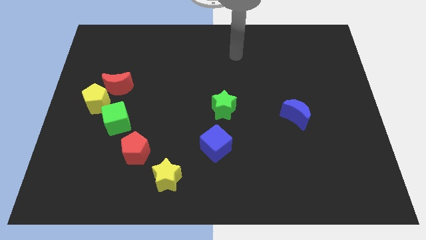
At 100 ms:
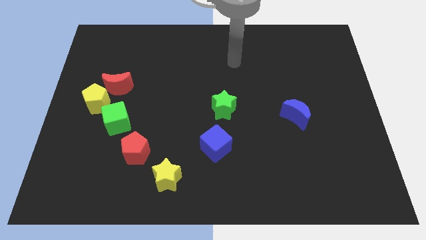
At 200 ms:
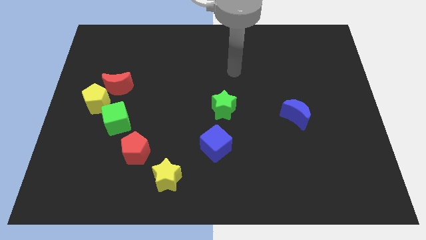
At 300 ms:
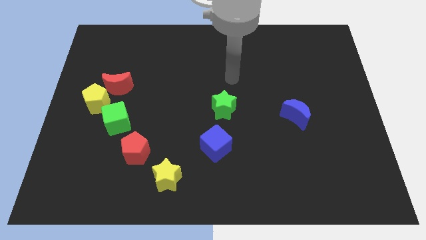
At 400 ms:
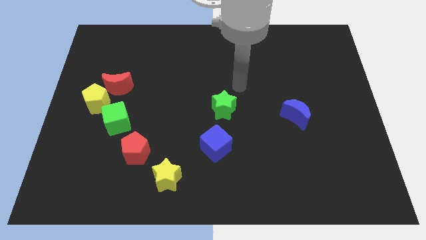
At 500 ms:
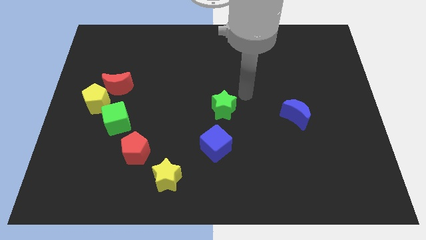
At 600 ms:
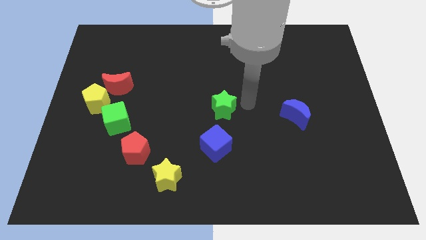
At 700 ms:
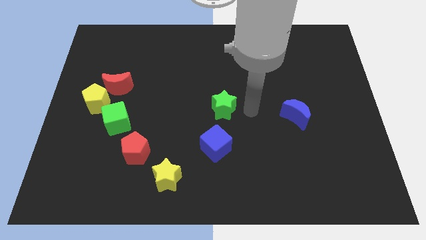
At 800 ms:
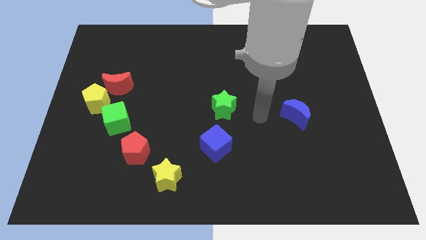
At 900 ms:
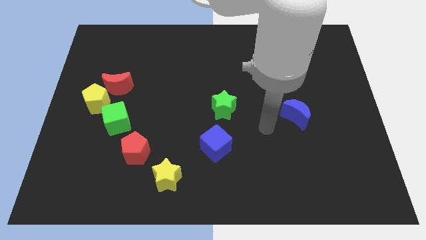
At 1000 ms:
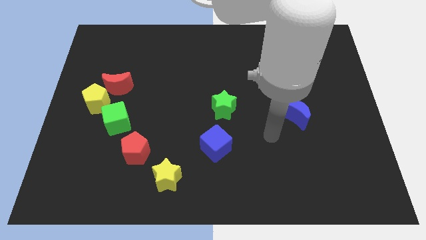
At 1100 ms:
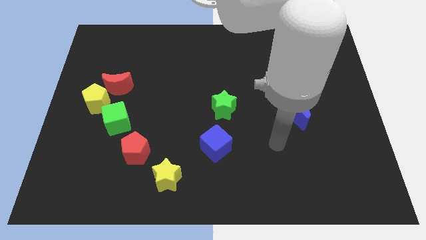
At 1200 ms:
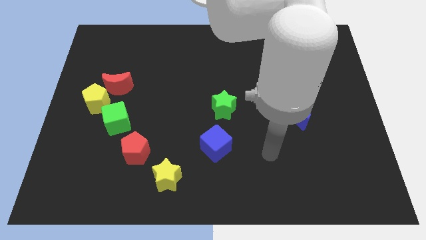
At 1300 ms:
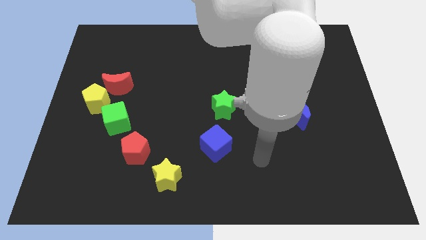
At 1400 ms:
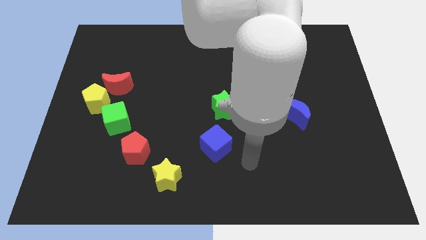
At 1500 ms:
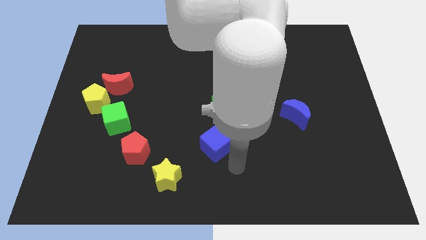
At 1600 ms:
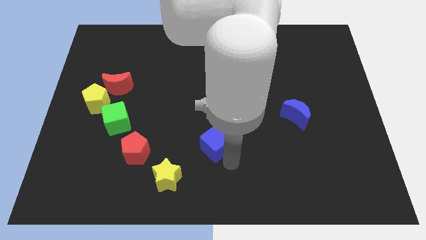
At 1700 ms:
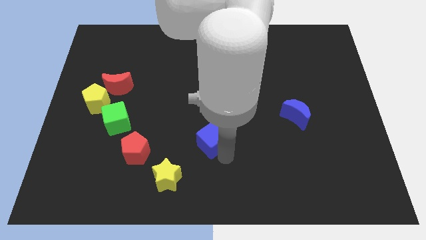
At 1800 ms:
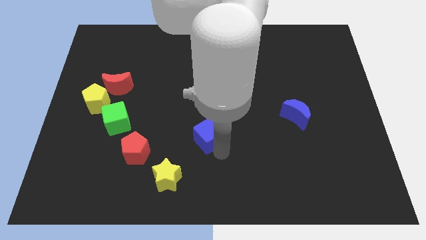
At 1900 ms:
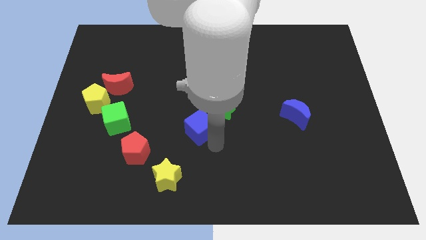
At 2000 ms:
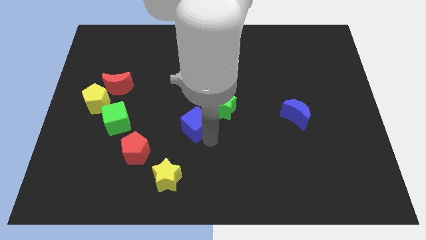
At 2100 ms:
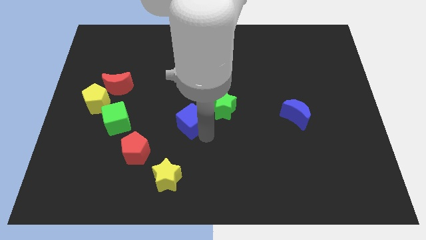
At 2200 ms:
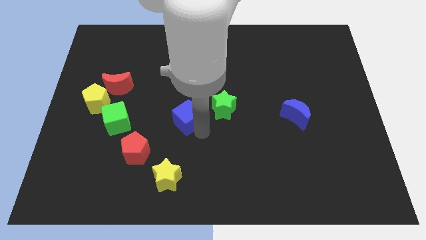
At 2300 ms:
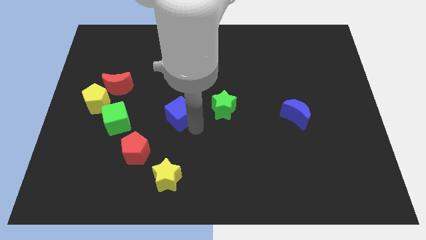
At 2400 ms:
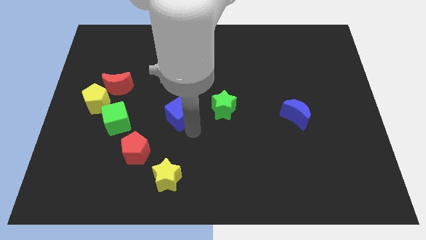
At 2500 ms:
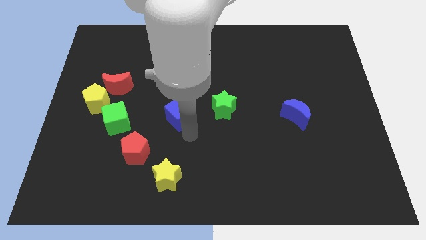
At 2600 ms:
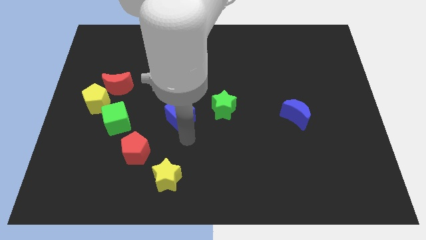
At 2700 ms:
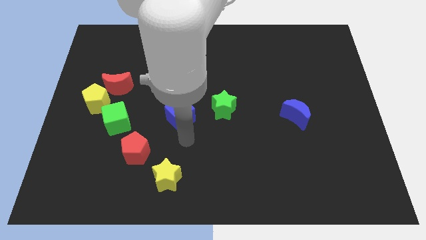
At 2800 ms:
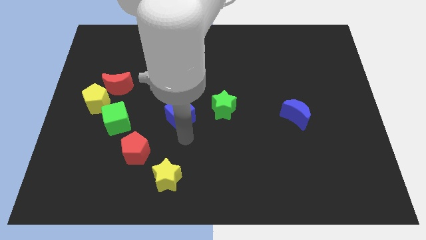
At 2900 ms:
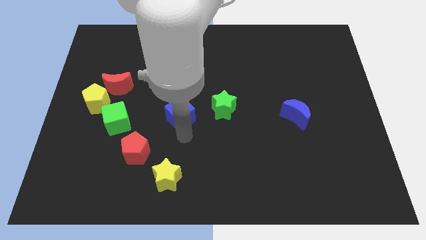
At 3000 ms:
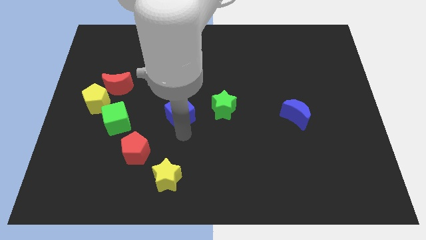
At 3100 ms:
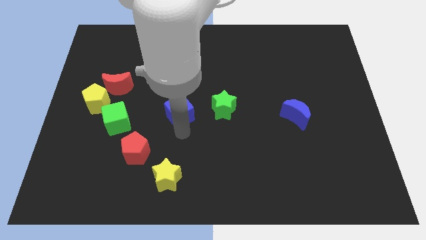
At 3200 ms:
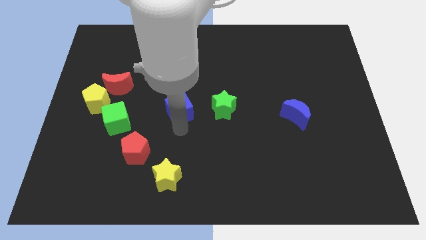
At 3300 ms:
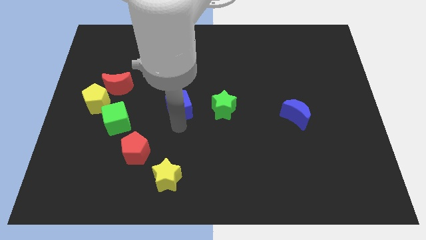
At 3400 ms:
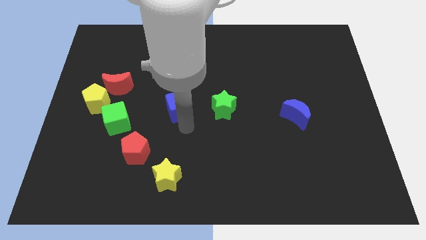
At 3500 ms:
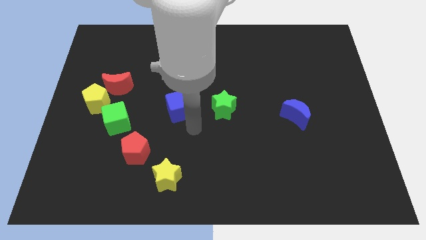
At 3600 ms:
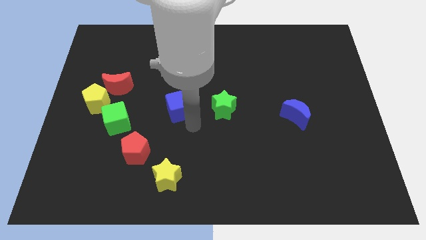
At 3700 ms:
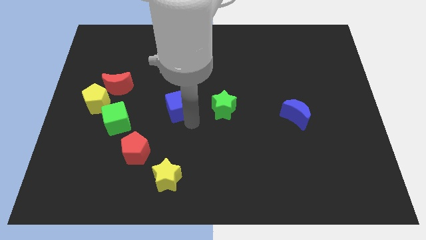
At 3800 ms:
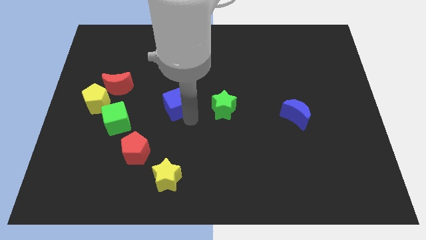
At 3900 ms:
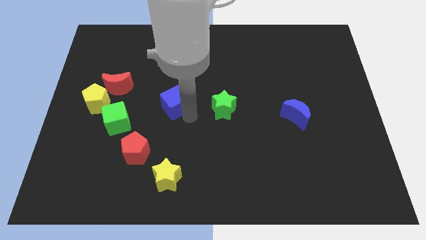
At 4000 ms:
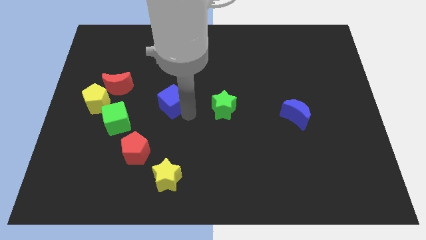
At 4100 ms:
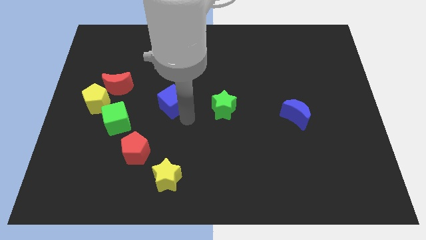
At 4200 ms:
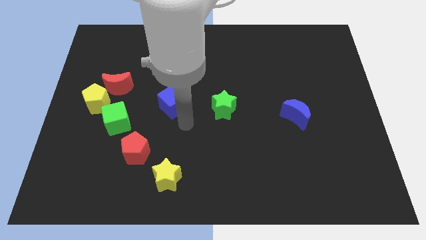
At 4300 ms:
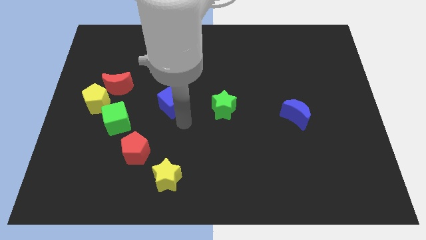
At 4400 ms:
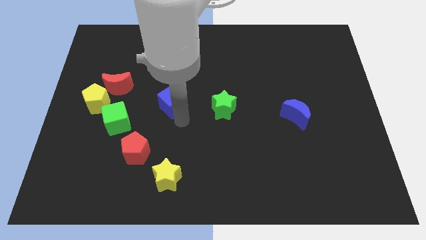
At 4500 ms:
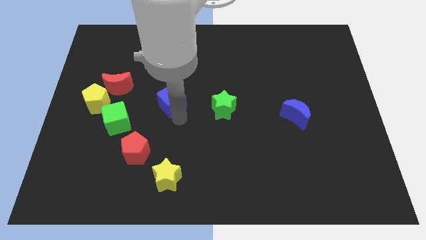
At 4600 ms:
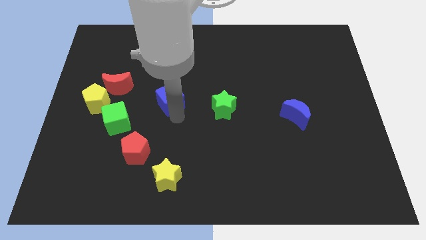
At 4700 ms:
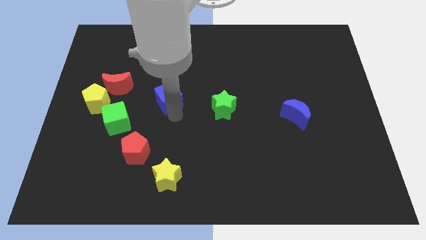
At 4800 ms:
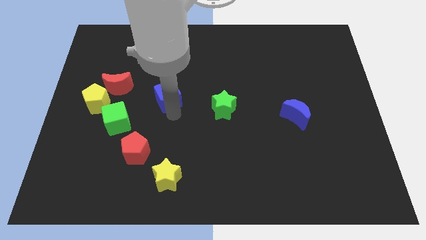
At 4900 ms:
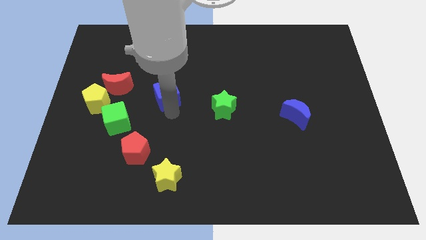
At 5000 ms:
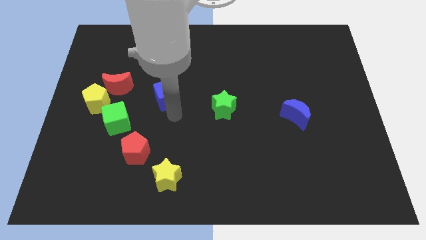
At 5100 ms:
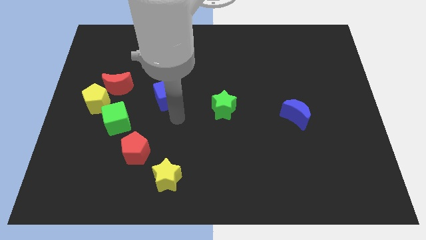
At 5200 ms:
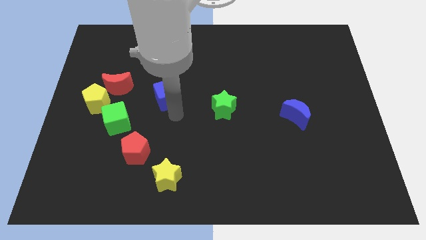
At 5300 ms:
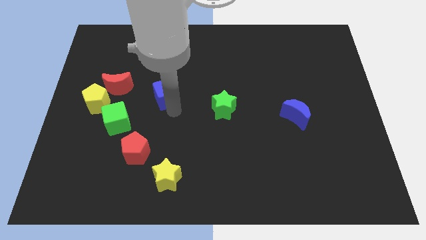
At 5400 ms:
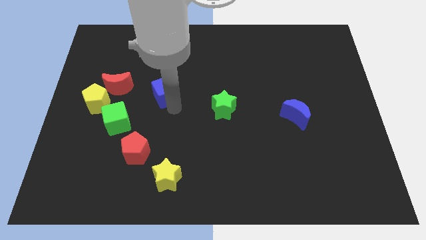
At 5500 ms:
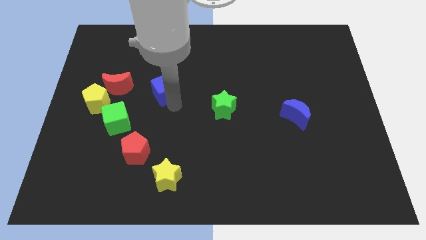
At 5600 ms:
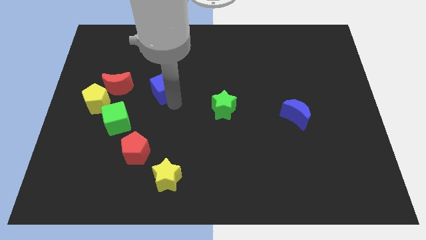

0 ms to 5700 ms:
move the blue cube up and left

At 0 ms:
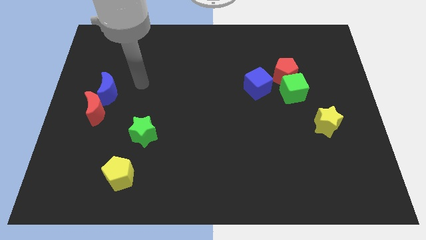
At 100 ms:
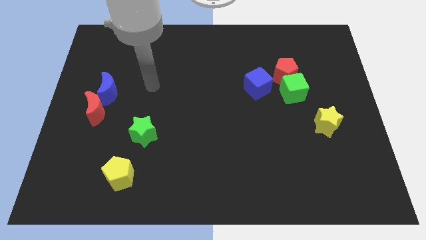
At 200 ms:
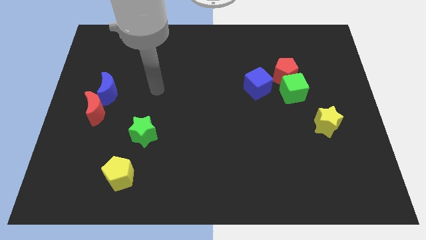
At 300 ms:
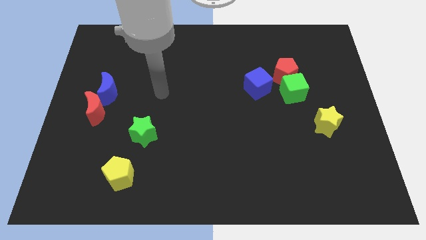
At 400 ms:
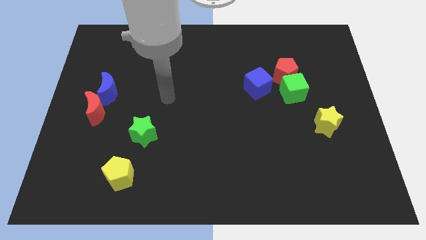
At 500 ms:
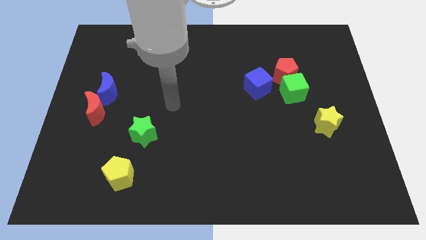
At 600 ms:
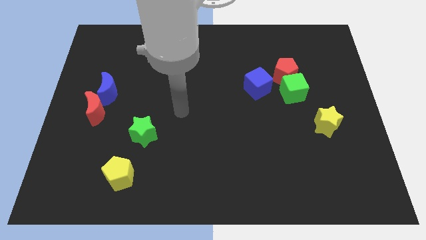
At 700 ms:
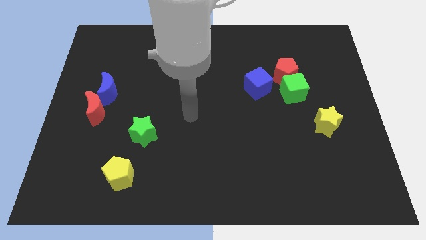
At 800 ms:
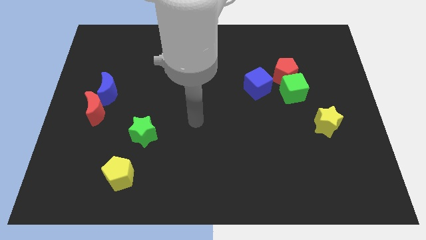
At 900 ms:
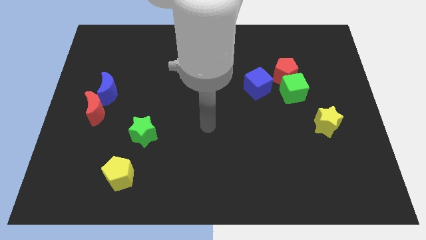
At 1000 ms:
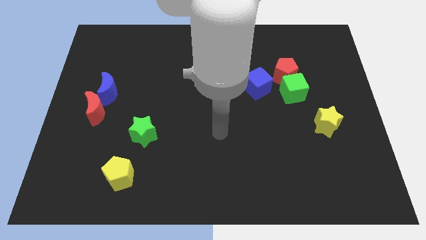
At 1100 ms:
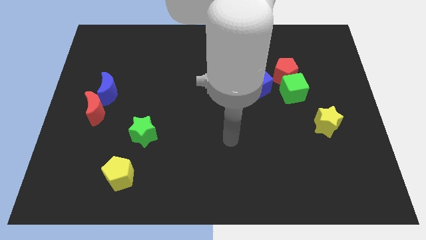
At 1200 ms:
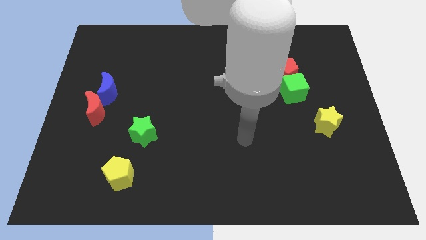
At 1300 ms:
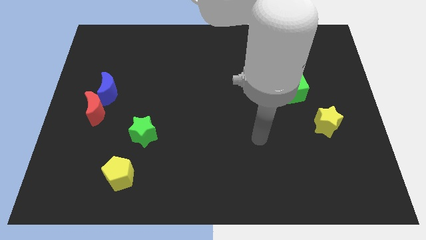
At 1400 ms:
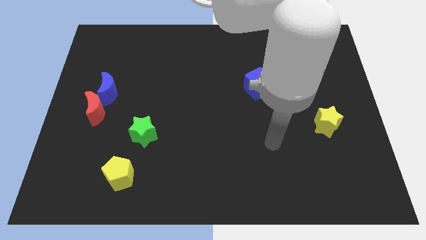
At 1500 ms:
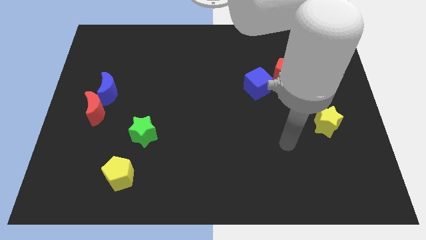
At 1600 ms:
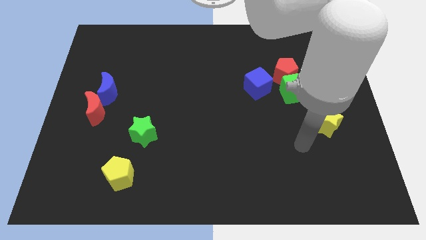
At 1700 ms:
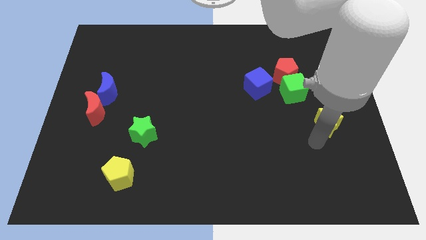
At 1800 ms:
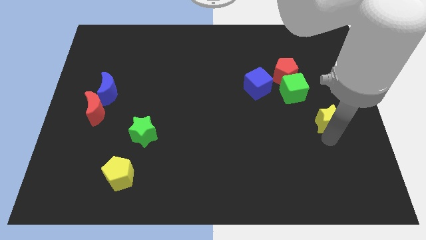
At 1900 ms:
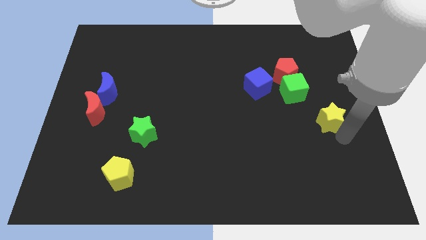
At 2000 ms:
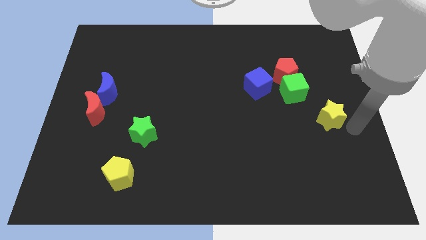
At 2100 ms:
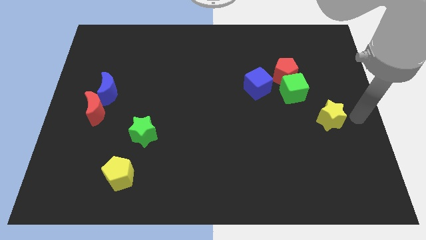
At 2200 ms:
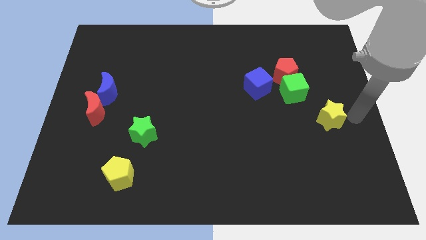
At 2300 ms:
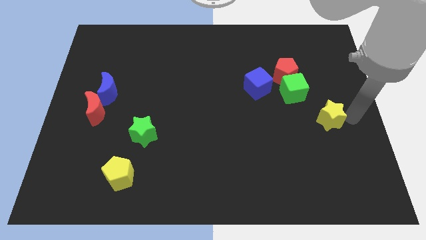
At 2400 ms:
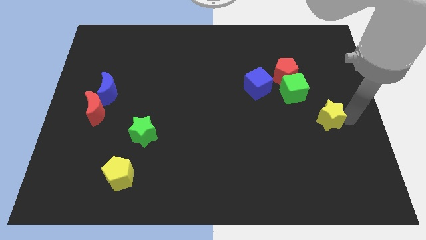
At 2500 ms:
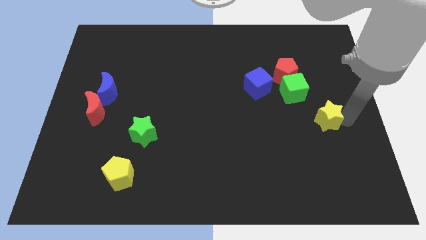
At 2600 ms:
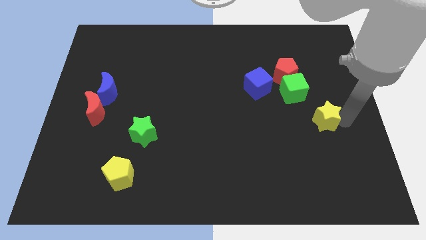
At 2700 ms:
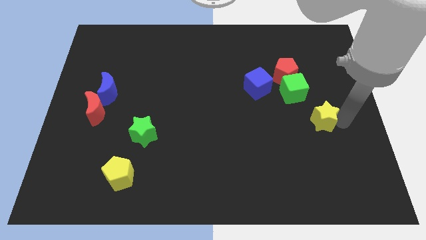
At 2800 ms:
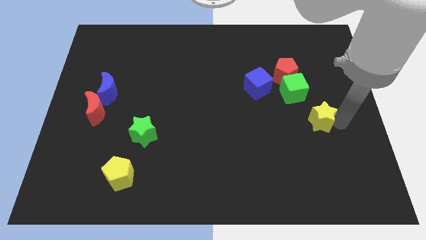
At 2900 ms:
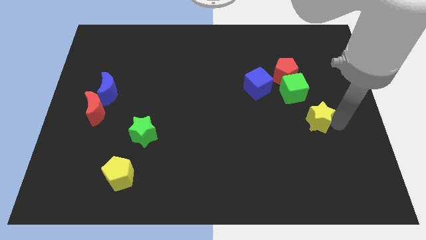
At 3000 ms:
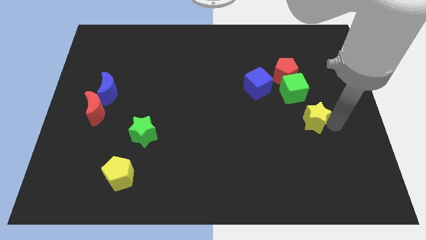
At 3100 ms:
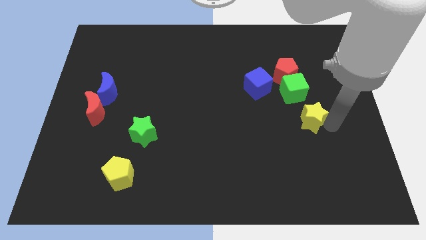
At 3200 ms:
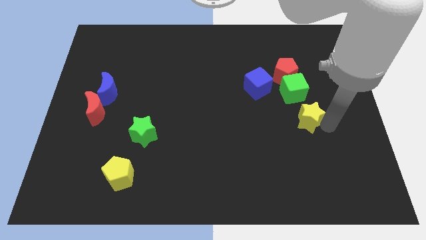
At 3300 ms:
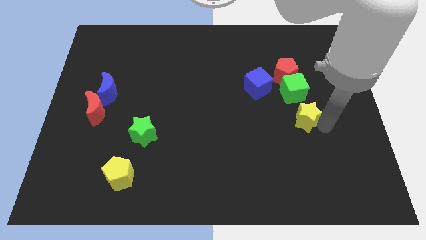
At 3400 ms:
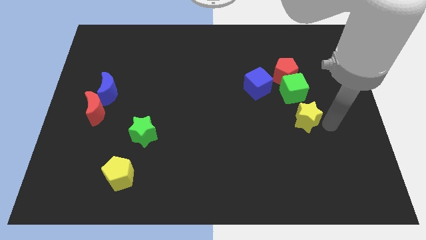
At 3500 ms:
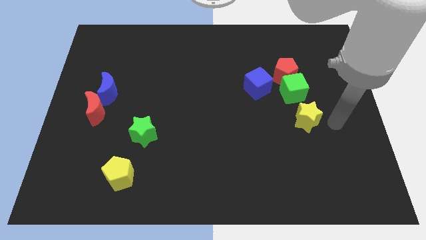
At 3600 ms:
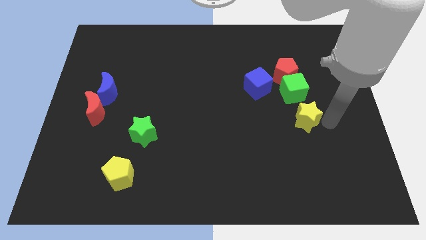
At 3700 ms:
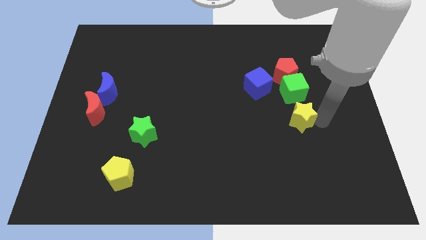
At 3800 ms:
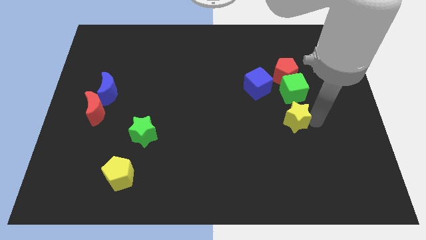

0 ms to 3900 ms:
slide the yellow star slightly left
